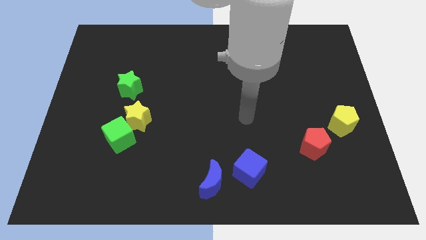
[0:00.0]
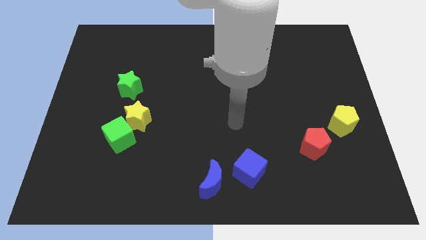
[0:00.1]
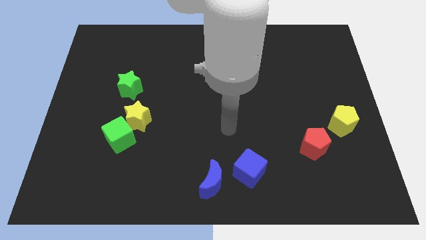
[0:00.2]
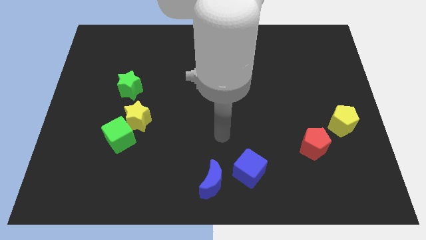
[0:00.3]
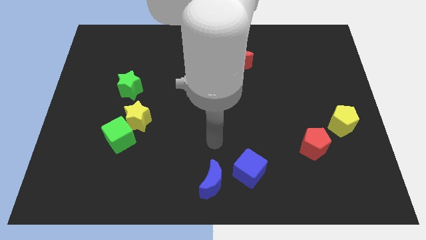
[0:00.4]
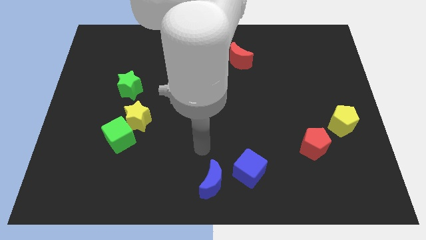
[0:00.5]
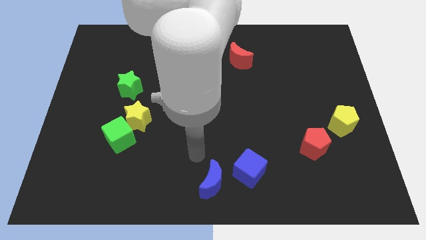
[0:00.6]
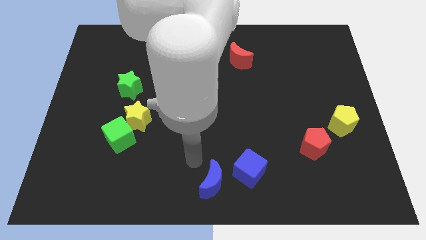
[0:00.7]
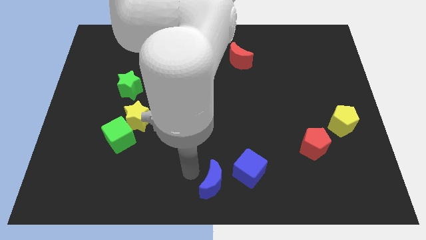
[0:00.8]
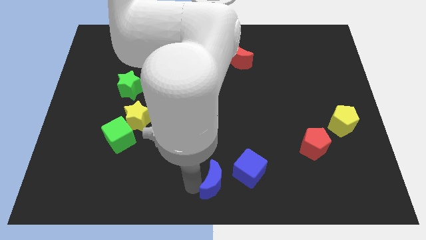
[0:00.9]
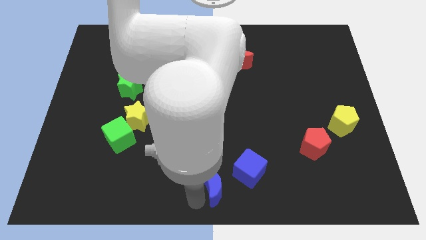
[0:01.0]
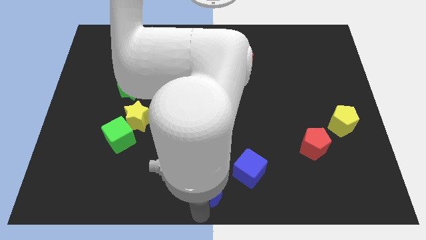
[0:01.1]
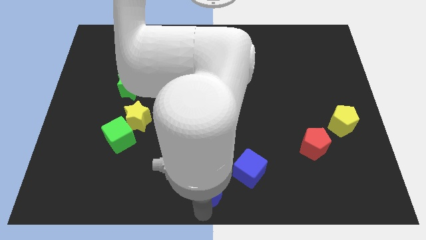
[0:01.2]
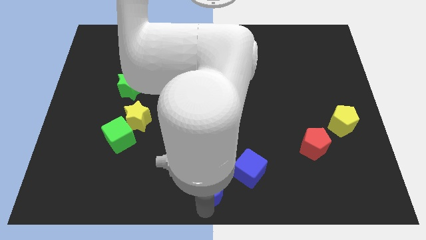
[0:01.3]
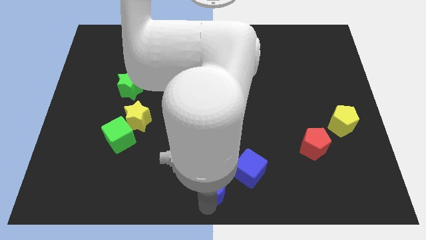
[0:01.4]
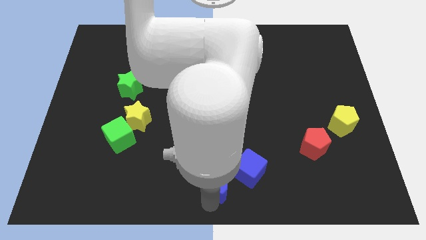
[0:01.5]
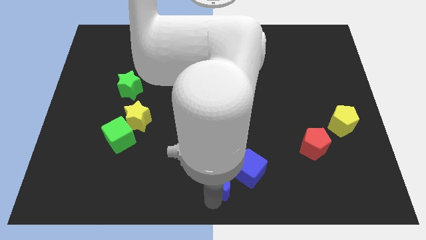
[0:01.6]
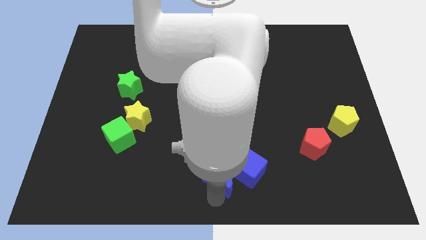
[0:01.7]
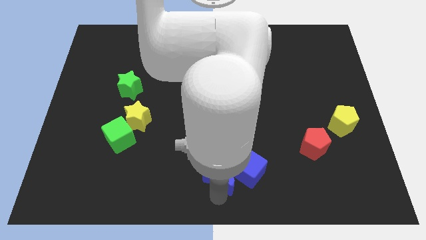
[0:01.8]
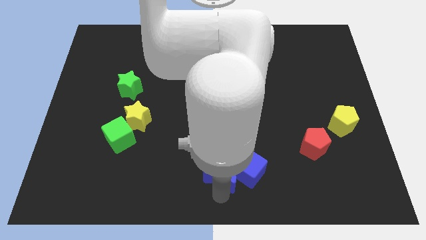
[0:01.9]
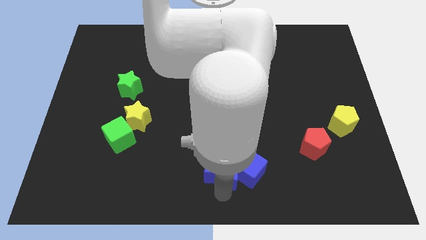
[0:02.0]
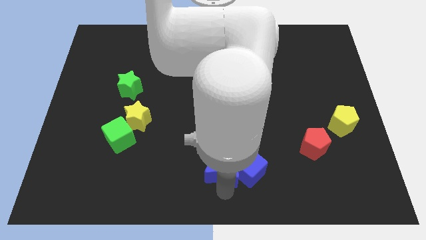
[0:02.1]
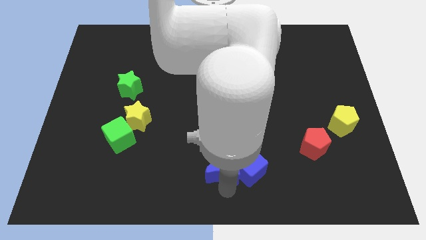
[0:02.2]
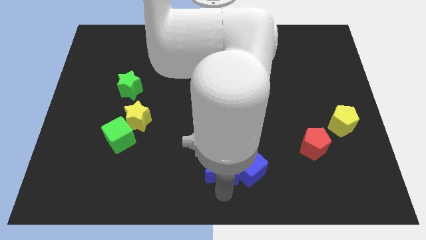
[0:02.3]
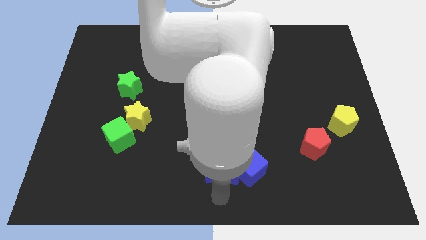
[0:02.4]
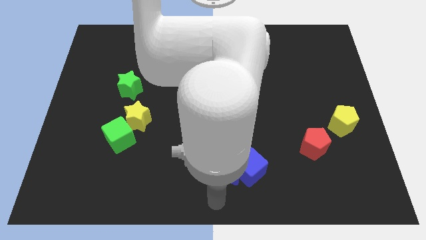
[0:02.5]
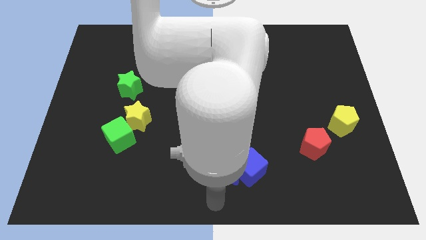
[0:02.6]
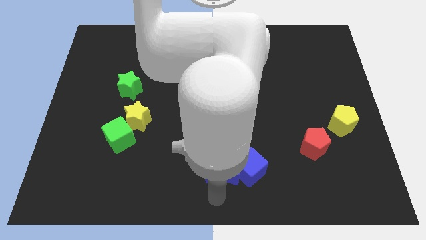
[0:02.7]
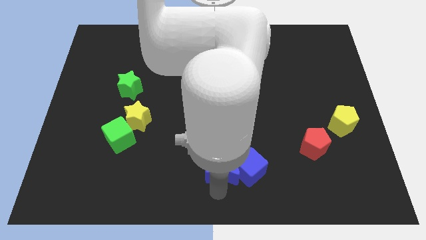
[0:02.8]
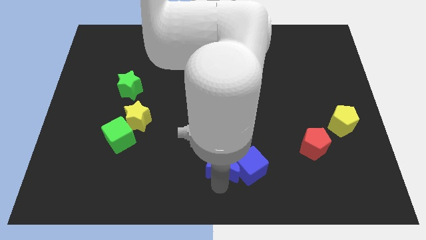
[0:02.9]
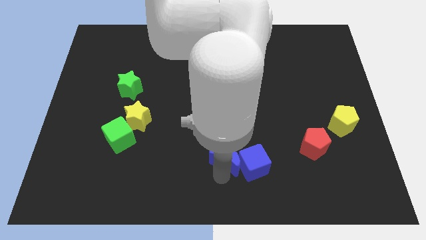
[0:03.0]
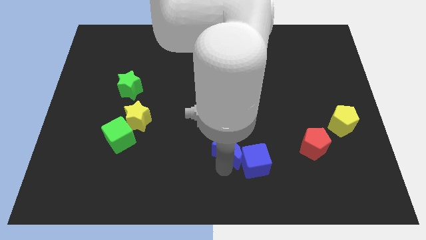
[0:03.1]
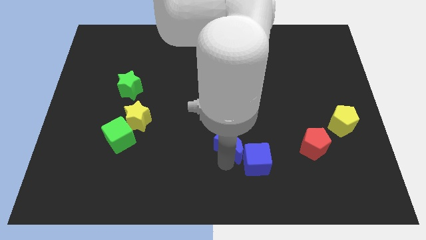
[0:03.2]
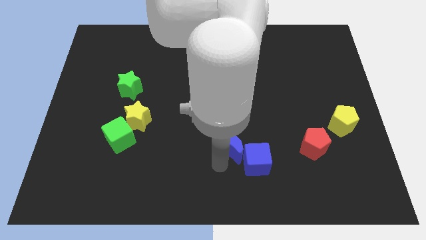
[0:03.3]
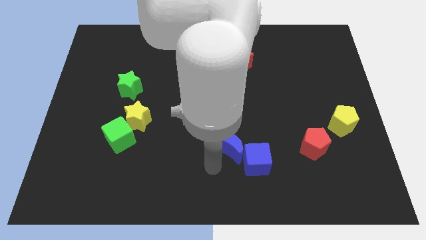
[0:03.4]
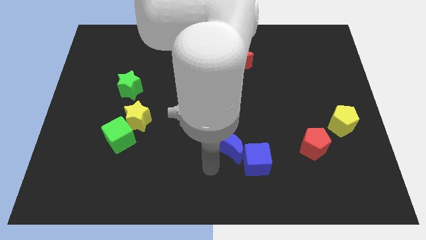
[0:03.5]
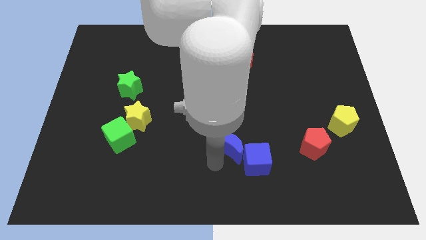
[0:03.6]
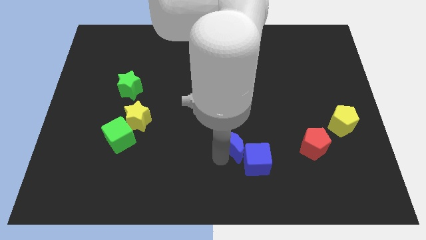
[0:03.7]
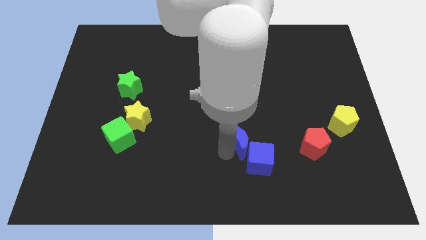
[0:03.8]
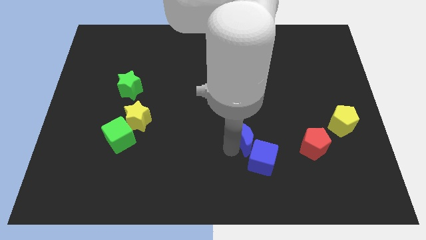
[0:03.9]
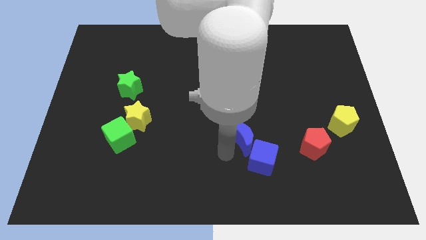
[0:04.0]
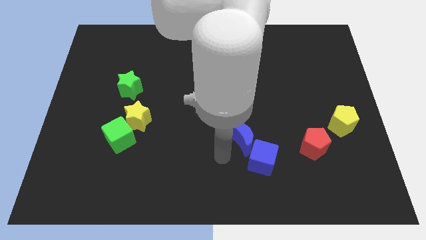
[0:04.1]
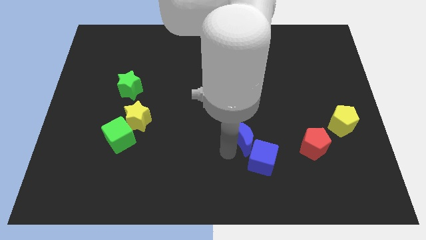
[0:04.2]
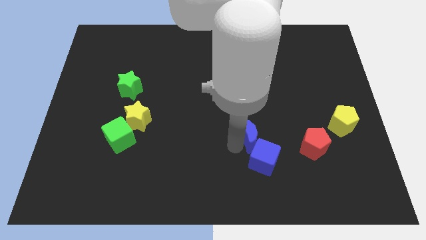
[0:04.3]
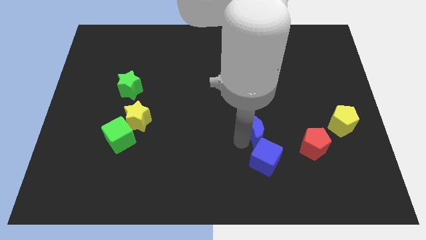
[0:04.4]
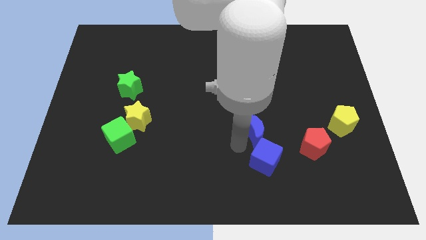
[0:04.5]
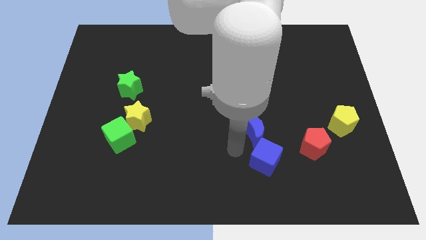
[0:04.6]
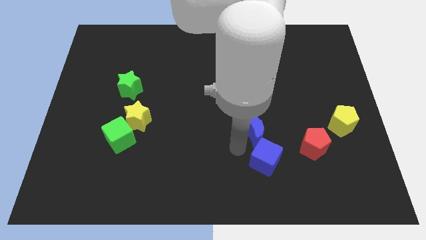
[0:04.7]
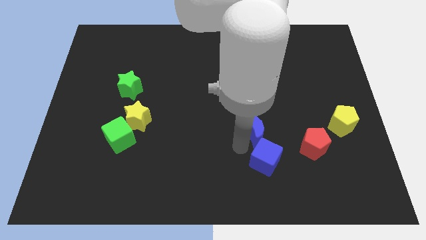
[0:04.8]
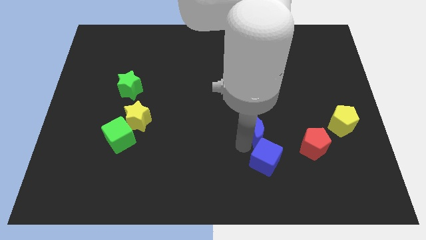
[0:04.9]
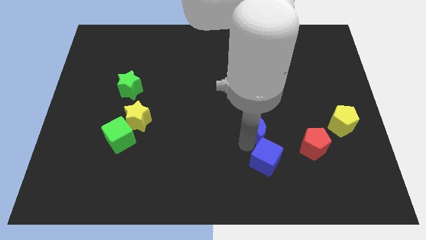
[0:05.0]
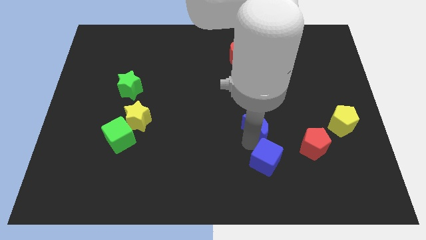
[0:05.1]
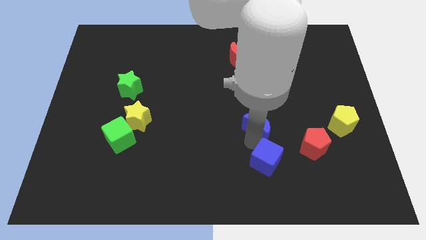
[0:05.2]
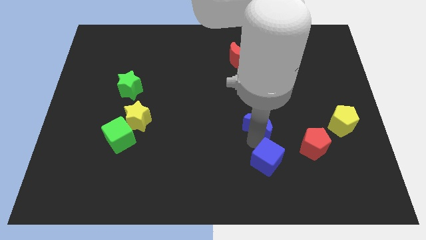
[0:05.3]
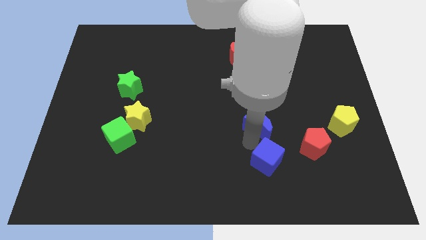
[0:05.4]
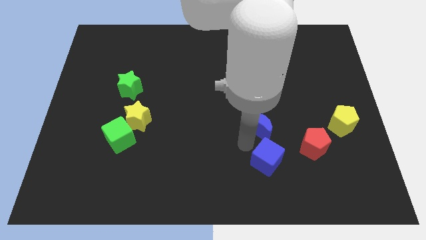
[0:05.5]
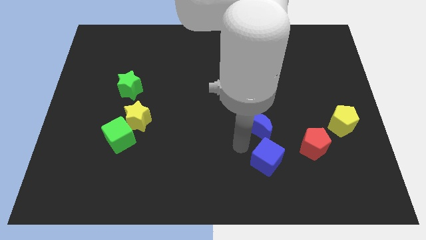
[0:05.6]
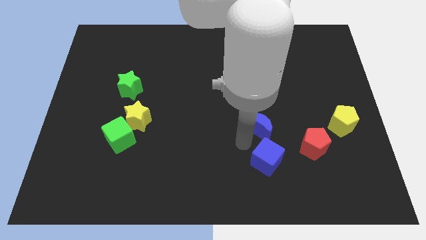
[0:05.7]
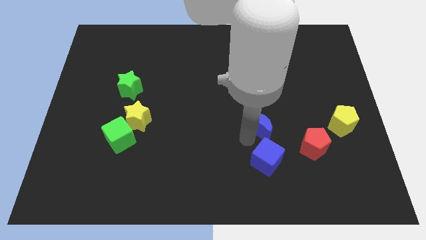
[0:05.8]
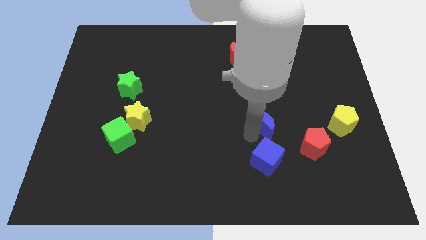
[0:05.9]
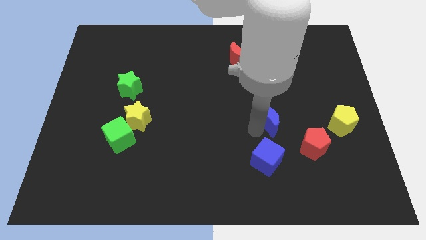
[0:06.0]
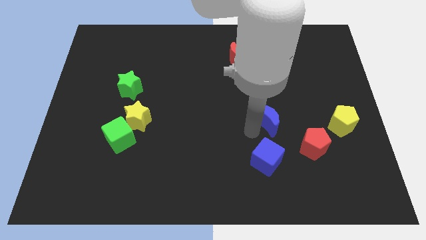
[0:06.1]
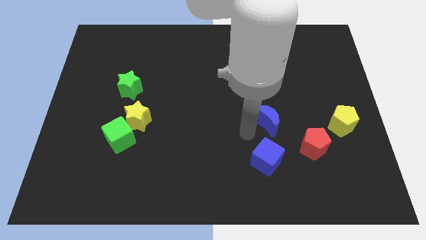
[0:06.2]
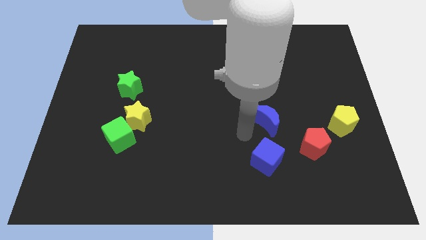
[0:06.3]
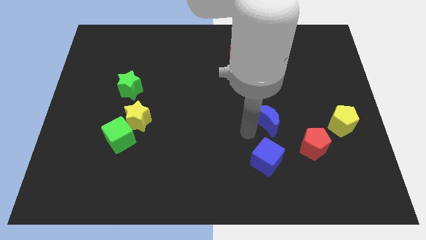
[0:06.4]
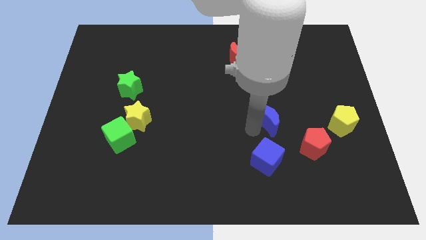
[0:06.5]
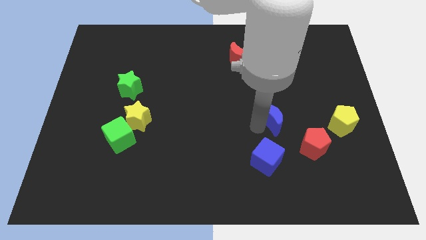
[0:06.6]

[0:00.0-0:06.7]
slide the blue moon upwards and right diagonally

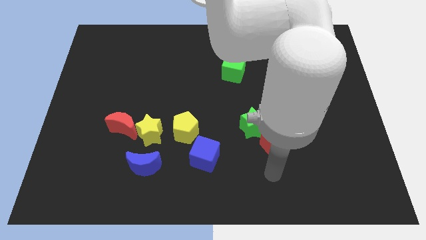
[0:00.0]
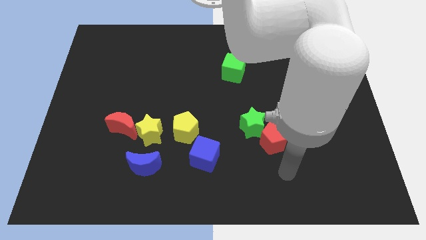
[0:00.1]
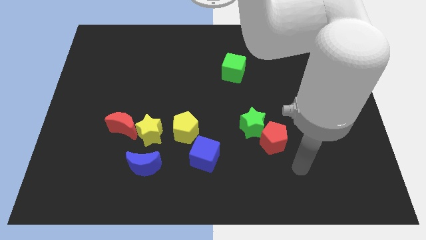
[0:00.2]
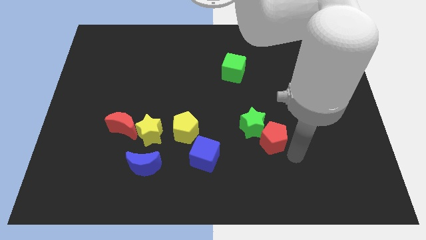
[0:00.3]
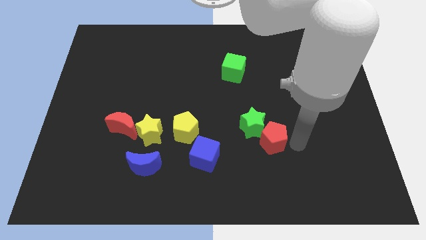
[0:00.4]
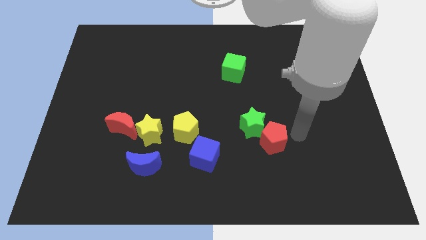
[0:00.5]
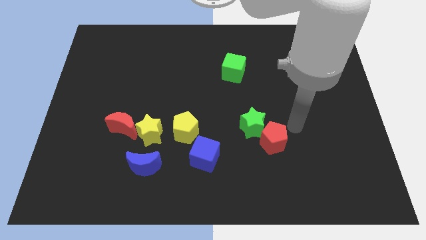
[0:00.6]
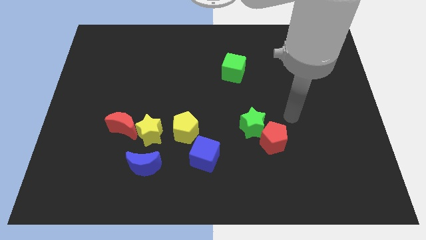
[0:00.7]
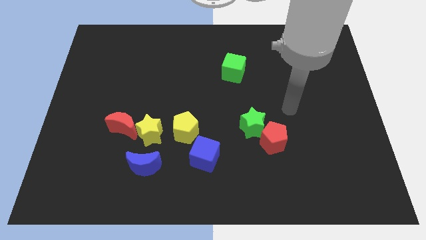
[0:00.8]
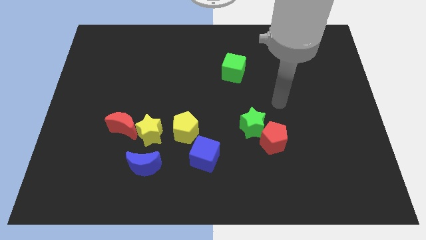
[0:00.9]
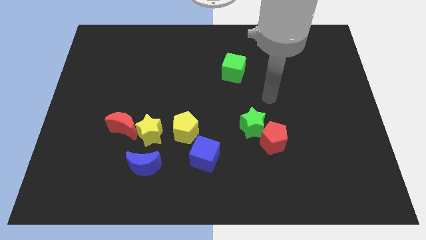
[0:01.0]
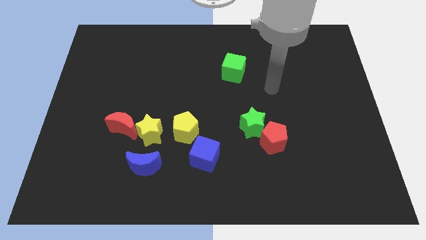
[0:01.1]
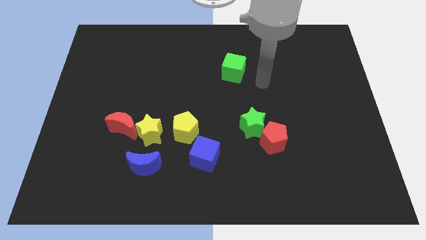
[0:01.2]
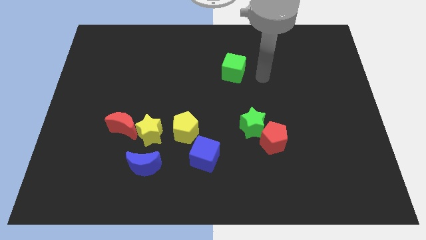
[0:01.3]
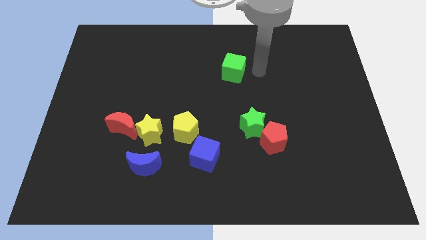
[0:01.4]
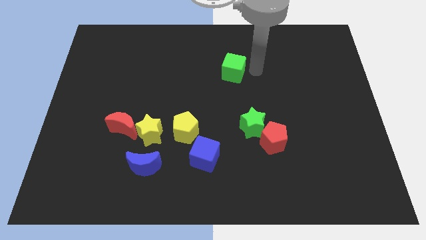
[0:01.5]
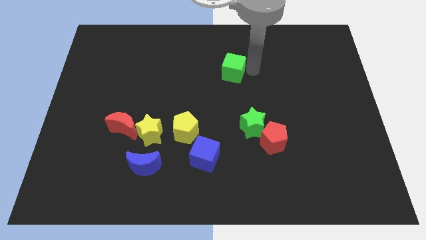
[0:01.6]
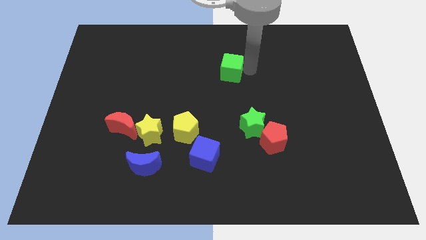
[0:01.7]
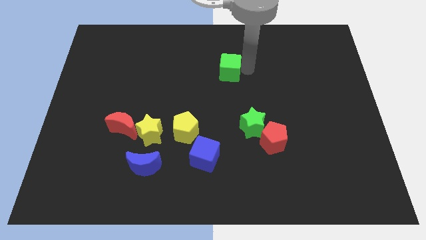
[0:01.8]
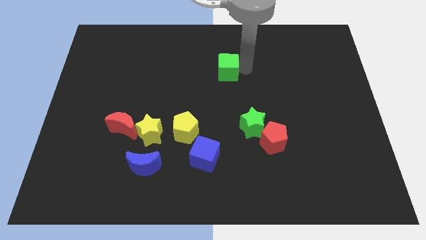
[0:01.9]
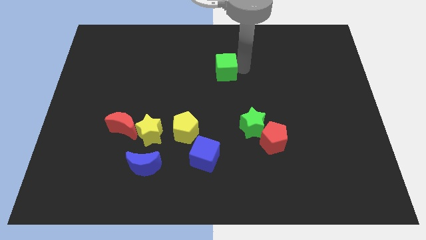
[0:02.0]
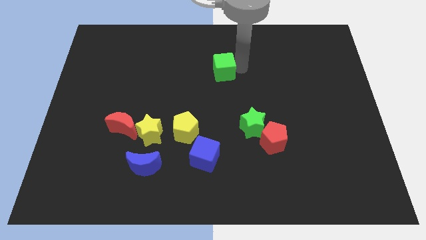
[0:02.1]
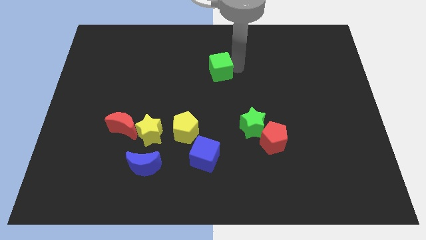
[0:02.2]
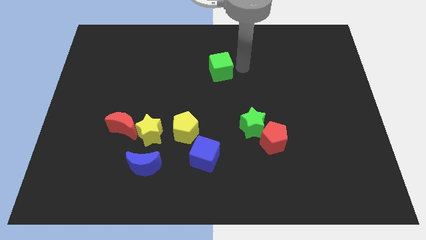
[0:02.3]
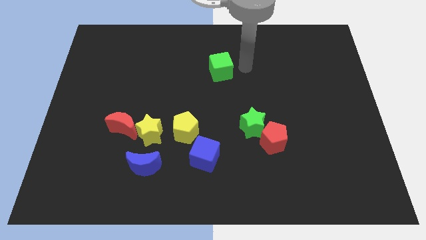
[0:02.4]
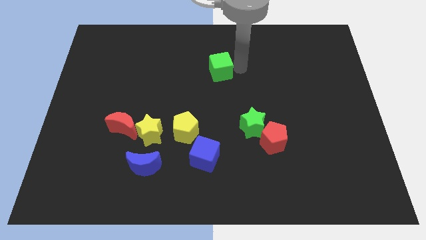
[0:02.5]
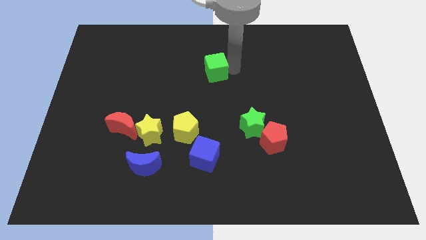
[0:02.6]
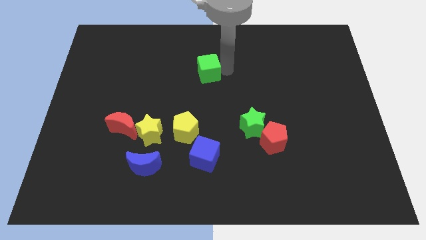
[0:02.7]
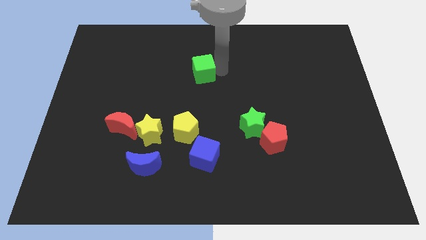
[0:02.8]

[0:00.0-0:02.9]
slightly move the green cube to the left
